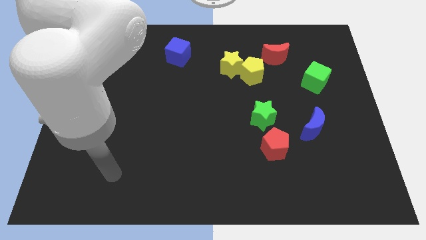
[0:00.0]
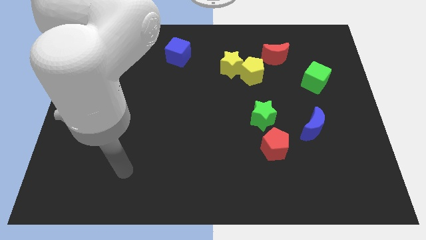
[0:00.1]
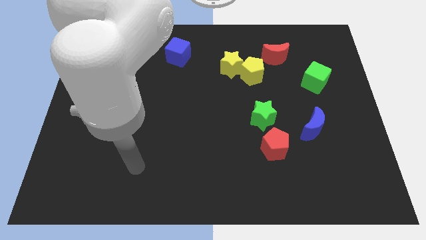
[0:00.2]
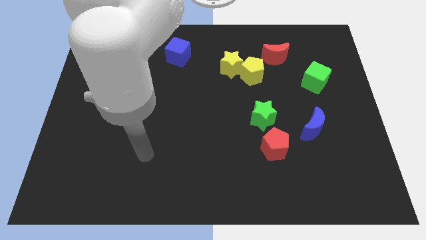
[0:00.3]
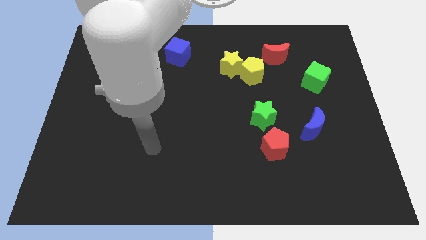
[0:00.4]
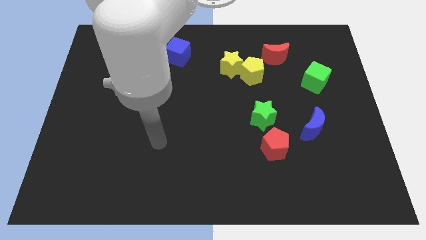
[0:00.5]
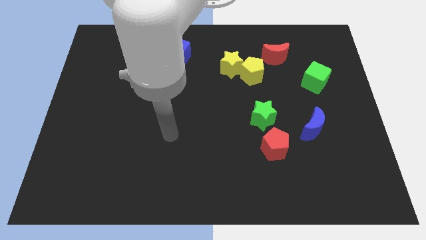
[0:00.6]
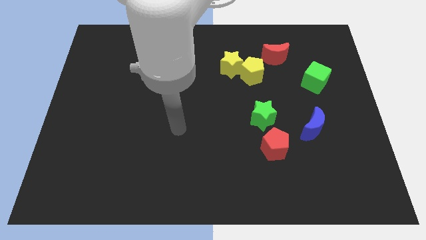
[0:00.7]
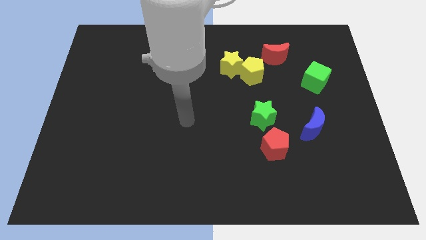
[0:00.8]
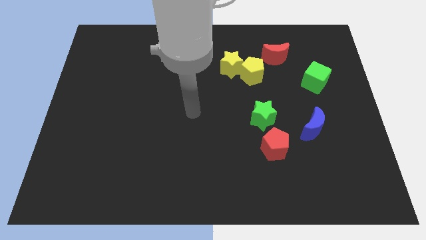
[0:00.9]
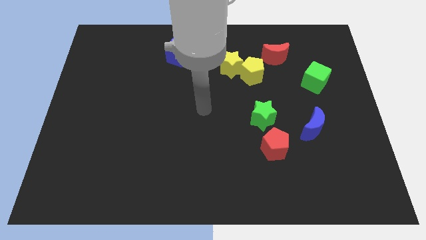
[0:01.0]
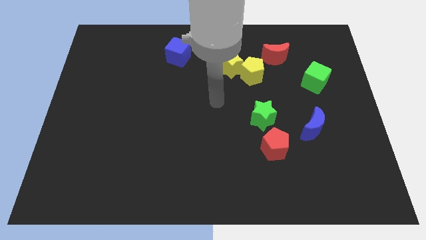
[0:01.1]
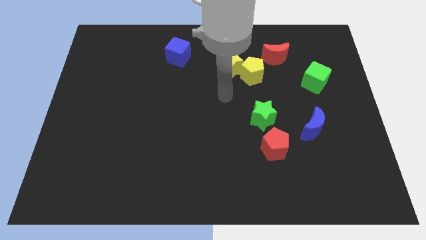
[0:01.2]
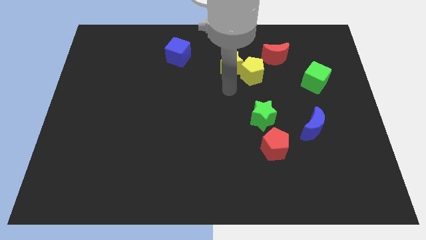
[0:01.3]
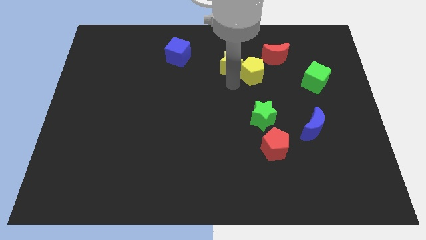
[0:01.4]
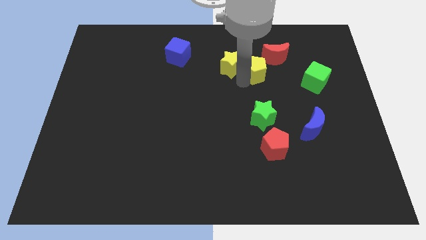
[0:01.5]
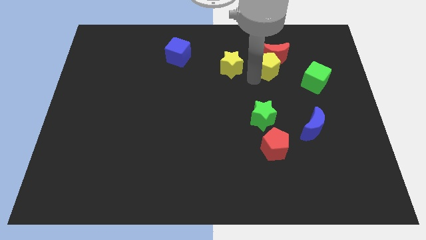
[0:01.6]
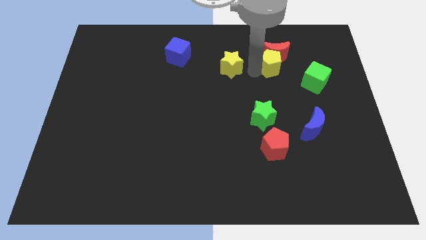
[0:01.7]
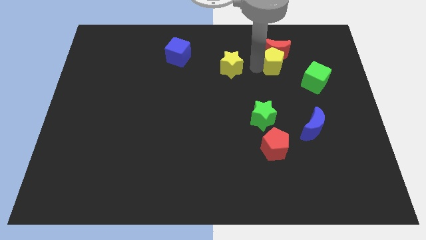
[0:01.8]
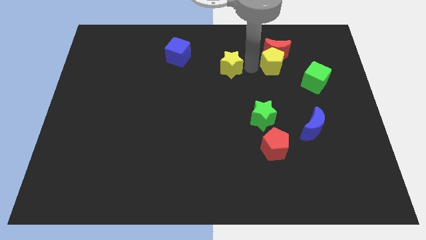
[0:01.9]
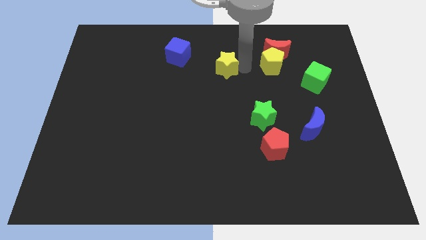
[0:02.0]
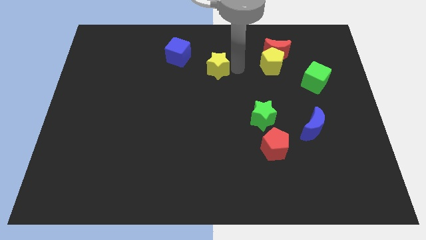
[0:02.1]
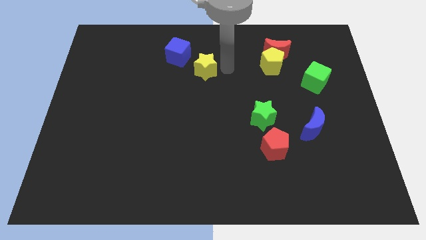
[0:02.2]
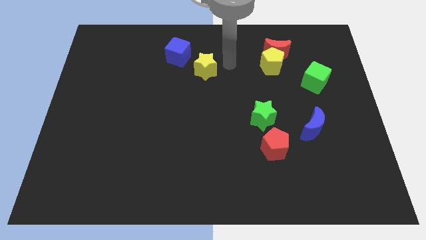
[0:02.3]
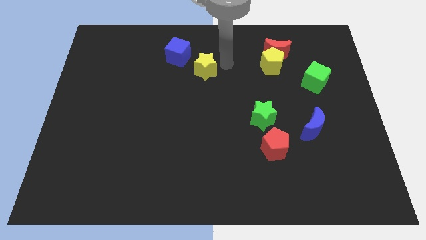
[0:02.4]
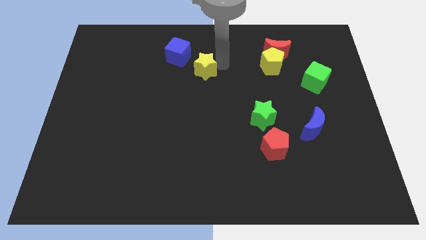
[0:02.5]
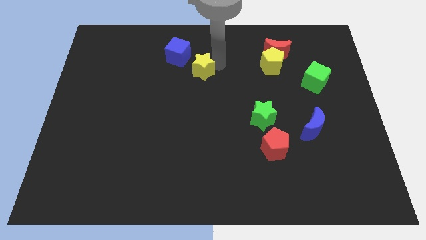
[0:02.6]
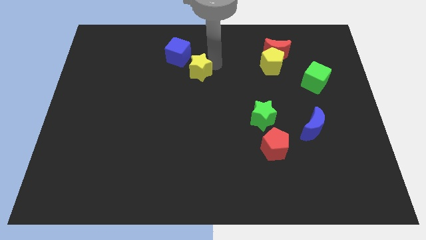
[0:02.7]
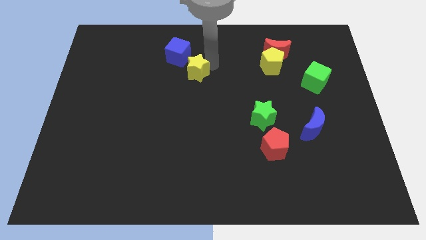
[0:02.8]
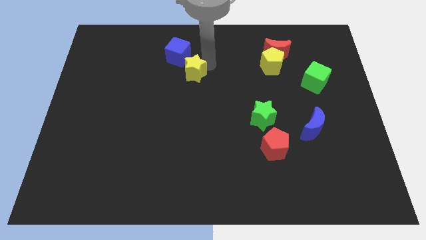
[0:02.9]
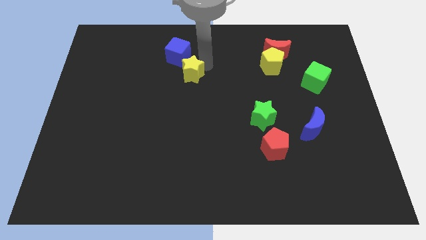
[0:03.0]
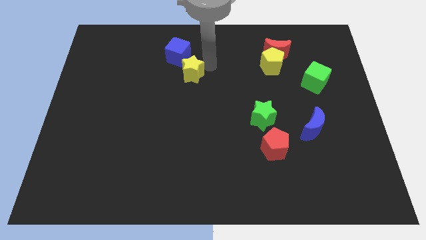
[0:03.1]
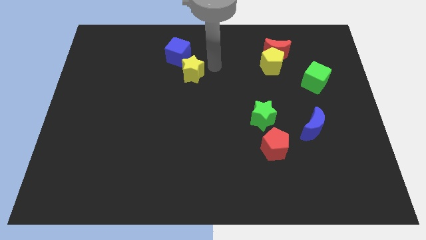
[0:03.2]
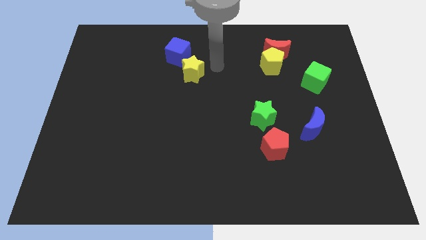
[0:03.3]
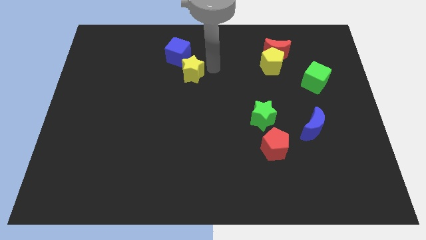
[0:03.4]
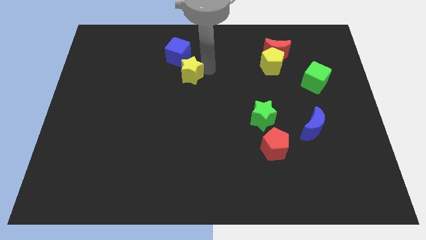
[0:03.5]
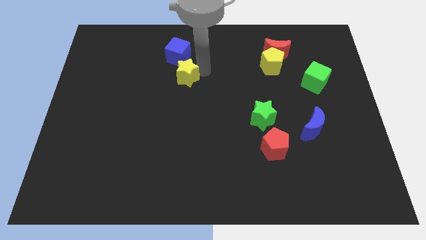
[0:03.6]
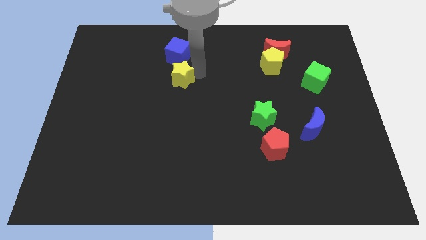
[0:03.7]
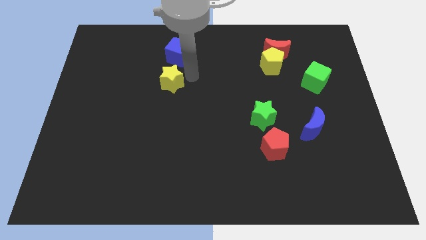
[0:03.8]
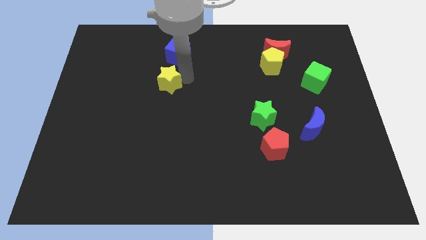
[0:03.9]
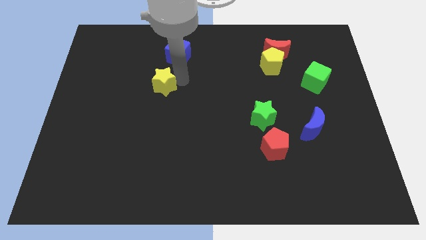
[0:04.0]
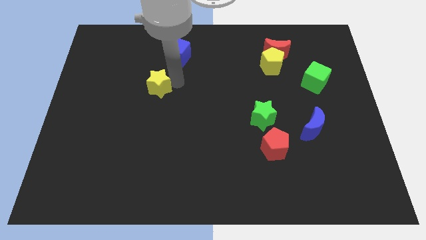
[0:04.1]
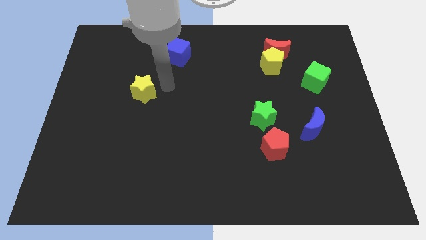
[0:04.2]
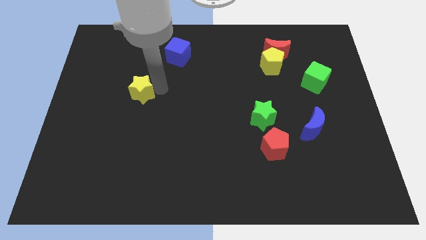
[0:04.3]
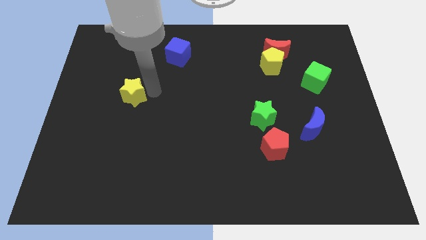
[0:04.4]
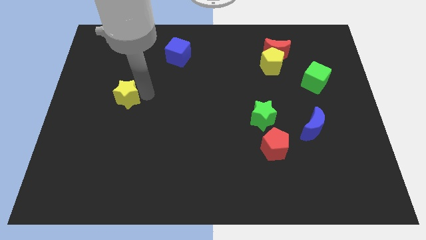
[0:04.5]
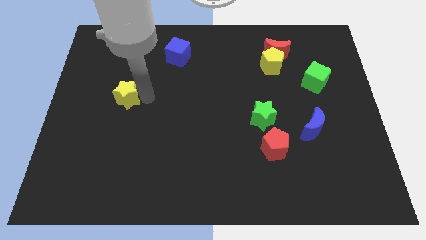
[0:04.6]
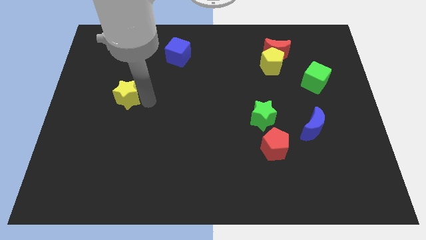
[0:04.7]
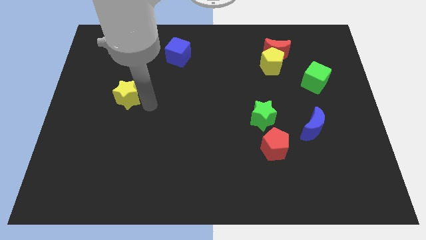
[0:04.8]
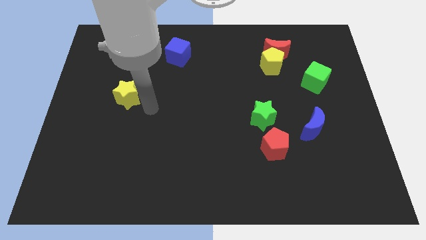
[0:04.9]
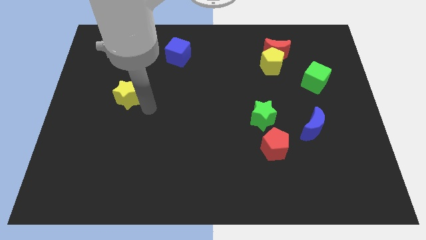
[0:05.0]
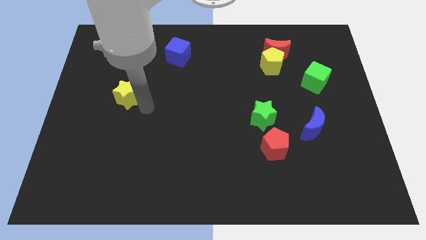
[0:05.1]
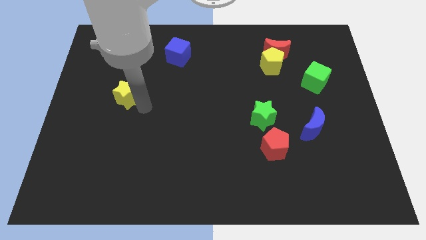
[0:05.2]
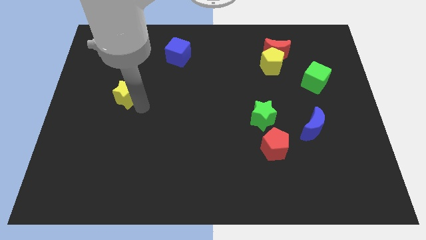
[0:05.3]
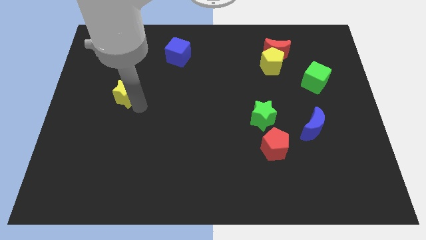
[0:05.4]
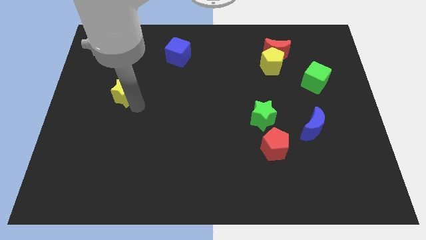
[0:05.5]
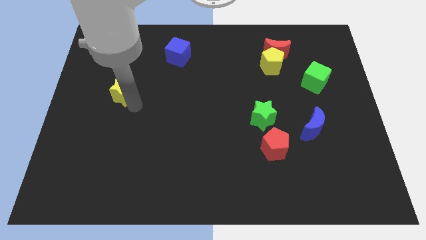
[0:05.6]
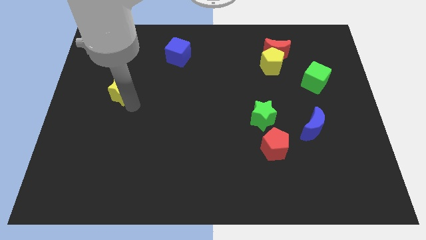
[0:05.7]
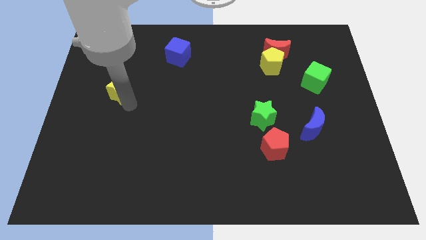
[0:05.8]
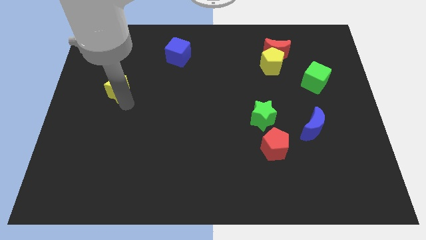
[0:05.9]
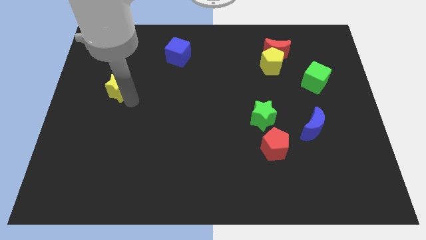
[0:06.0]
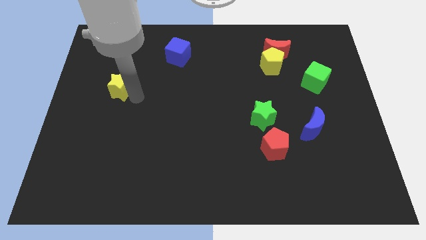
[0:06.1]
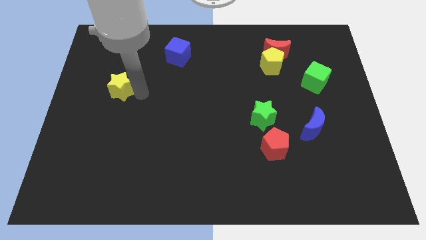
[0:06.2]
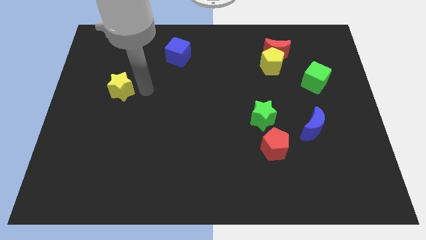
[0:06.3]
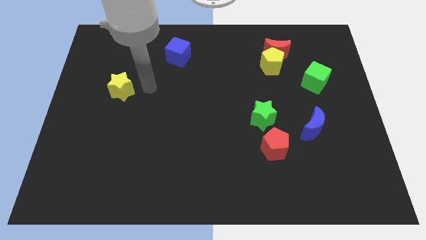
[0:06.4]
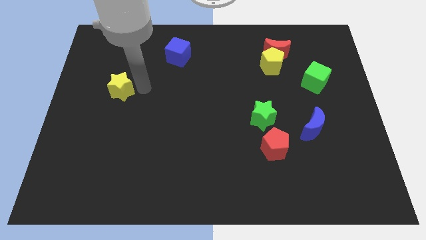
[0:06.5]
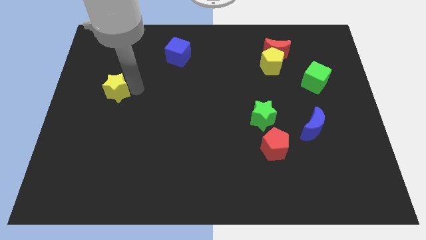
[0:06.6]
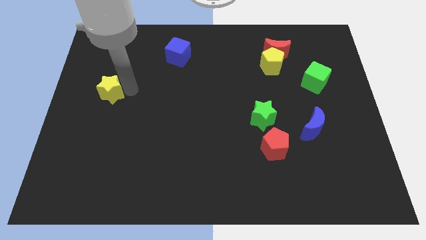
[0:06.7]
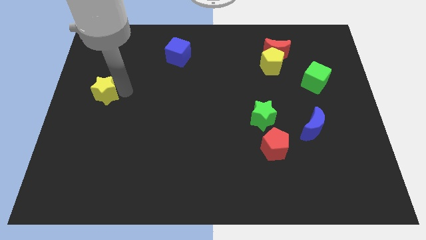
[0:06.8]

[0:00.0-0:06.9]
move the yellow star to the left side of the board

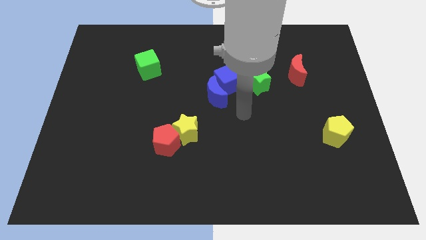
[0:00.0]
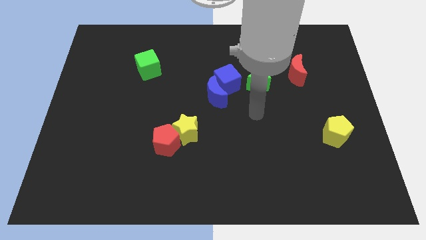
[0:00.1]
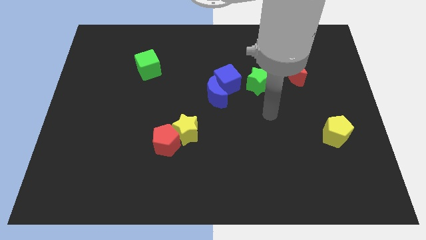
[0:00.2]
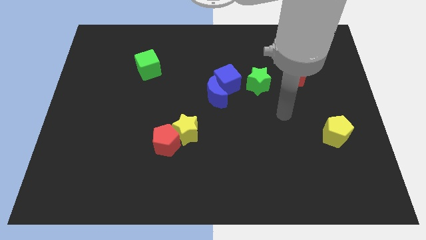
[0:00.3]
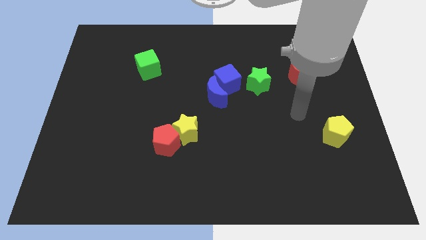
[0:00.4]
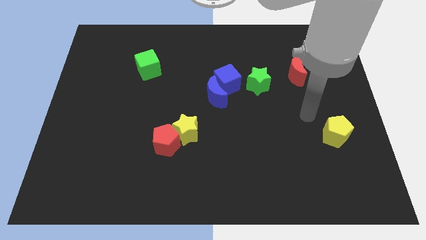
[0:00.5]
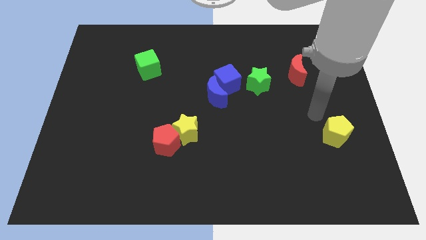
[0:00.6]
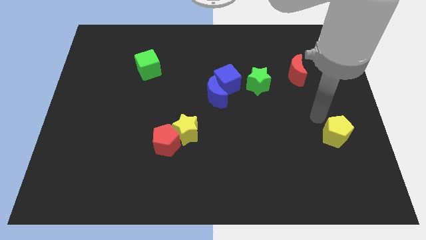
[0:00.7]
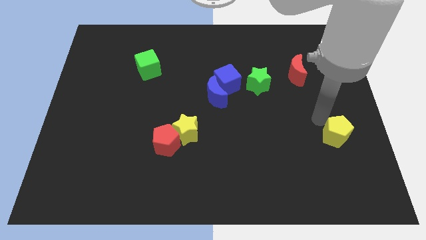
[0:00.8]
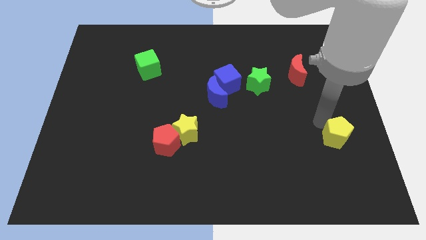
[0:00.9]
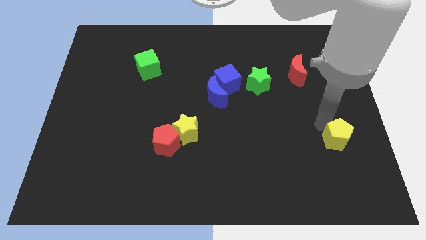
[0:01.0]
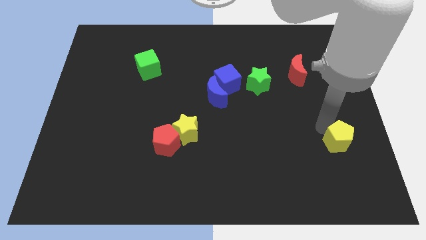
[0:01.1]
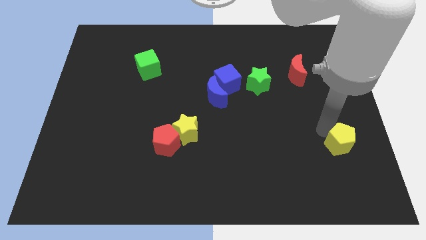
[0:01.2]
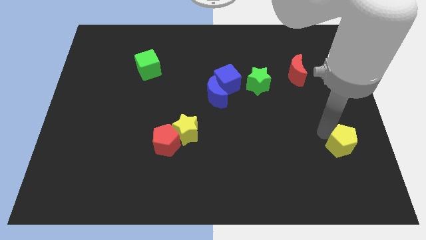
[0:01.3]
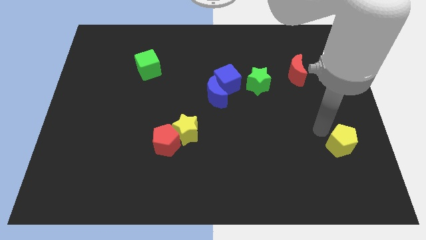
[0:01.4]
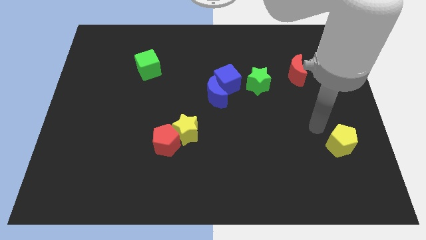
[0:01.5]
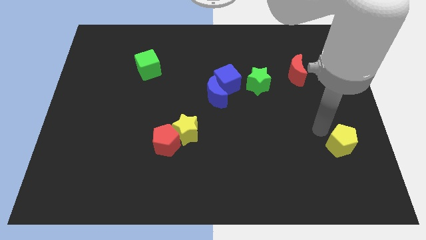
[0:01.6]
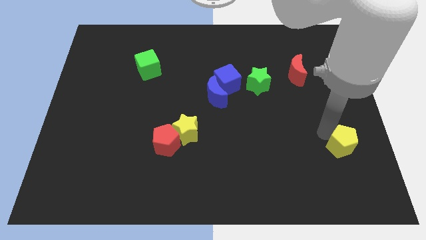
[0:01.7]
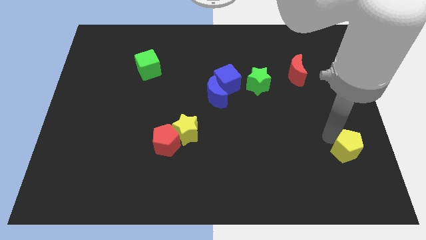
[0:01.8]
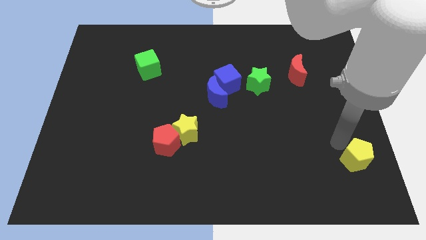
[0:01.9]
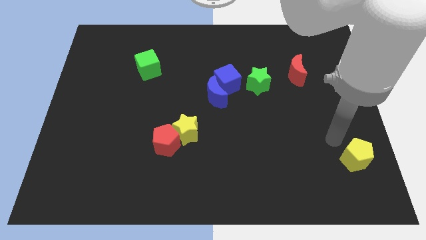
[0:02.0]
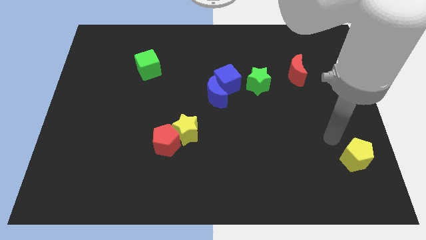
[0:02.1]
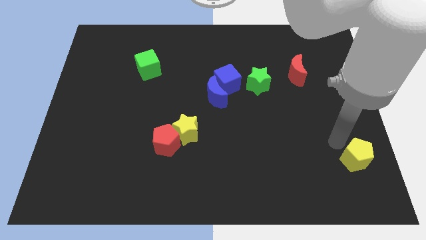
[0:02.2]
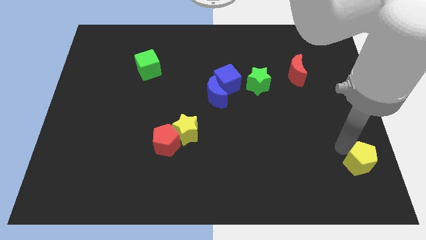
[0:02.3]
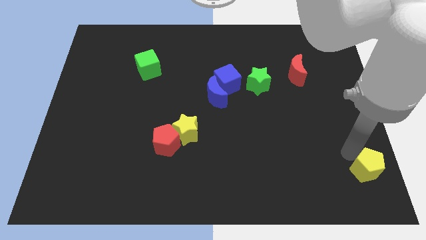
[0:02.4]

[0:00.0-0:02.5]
push the yellow pentagon to the bottom right corner
